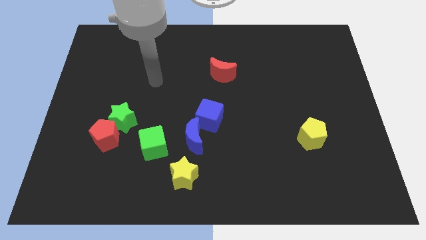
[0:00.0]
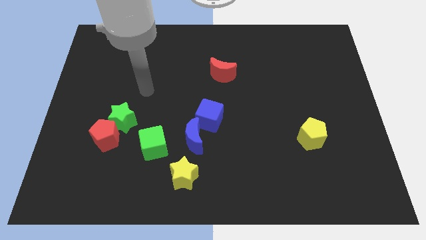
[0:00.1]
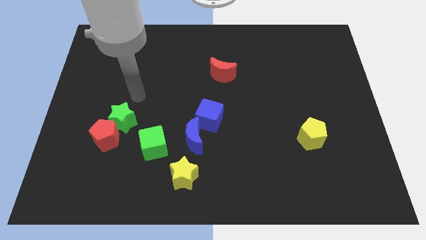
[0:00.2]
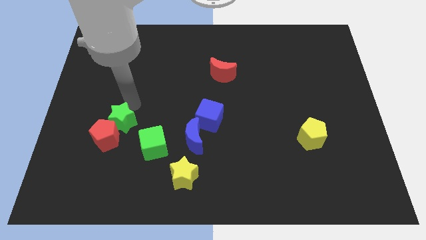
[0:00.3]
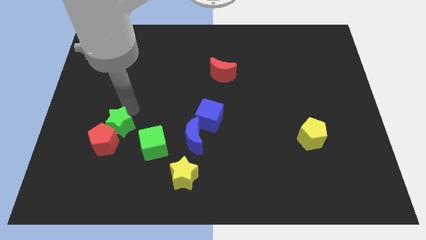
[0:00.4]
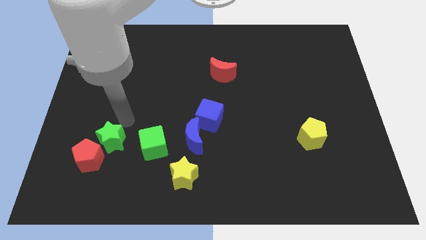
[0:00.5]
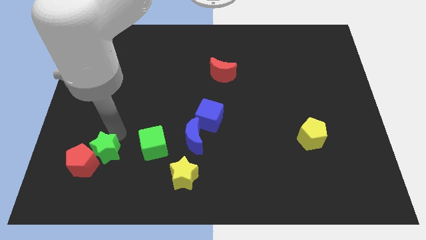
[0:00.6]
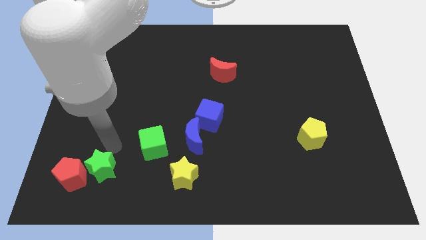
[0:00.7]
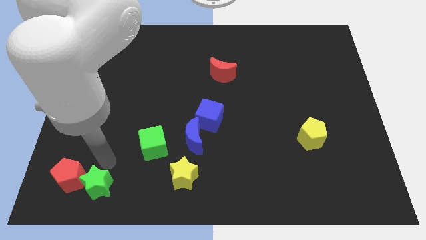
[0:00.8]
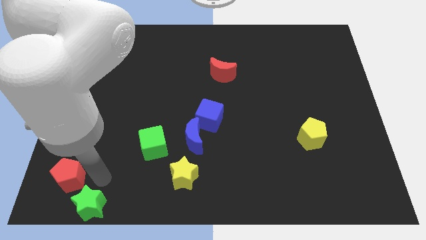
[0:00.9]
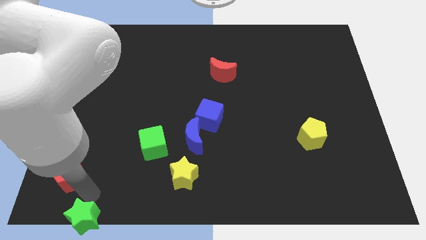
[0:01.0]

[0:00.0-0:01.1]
move the red pentagon away from the green star

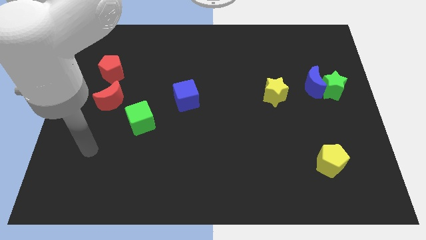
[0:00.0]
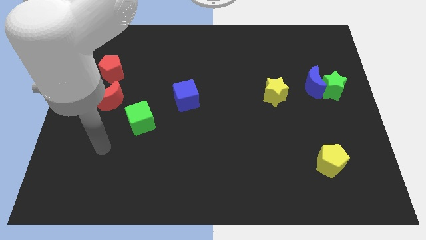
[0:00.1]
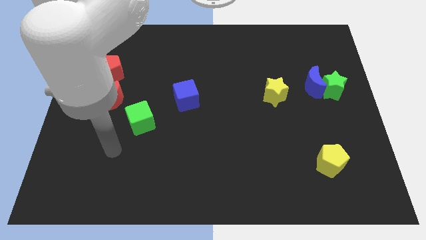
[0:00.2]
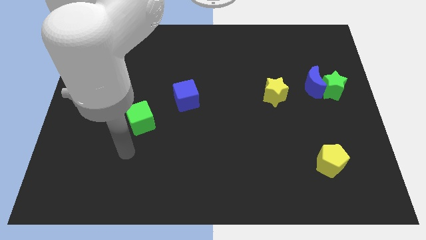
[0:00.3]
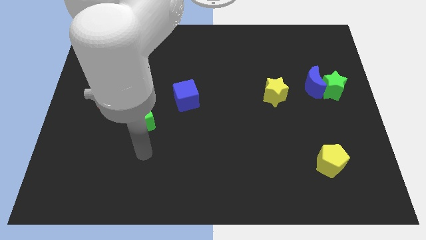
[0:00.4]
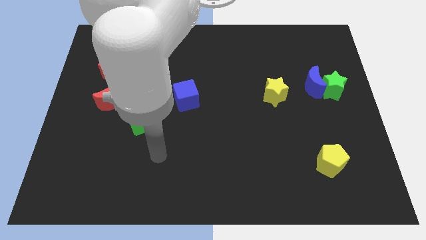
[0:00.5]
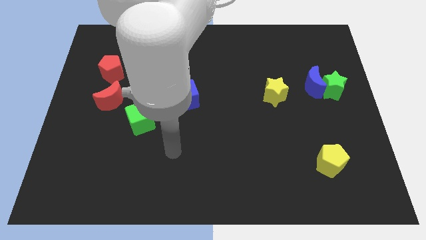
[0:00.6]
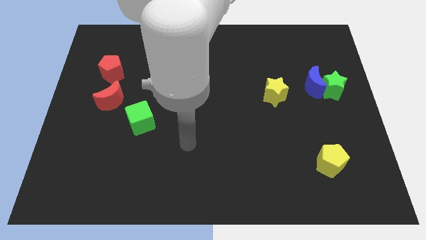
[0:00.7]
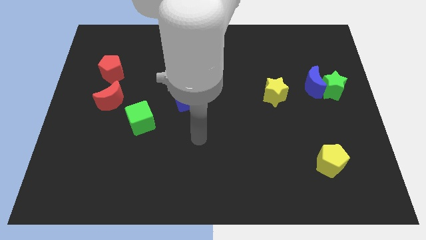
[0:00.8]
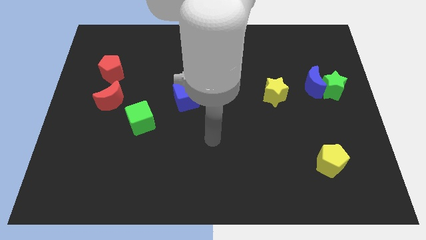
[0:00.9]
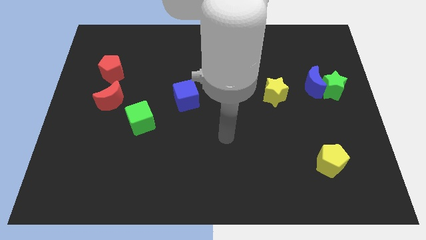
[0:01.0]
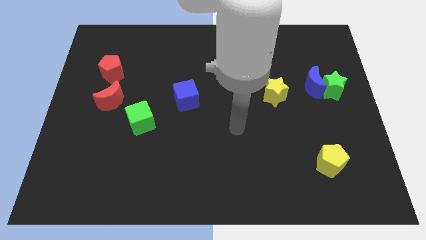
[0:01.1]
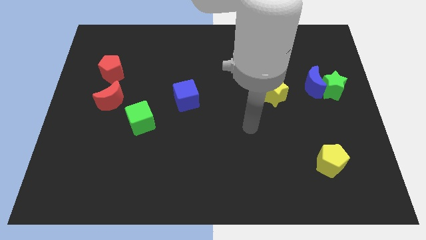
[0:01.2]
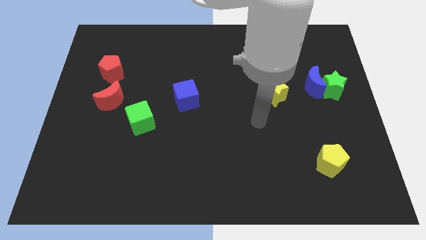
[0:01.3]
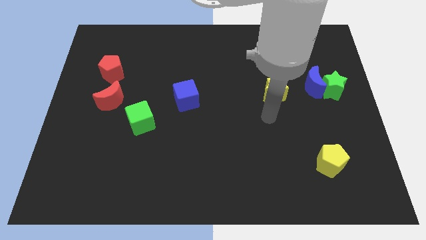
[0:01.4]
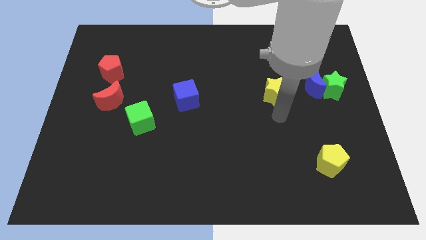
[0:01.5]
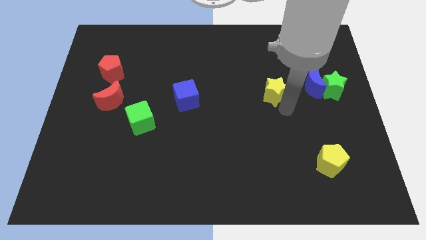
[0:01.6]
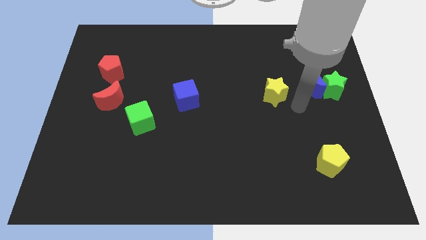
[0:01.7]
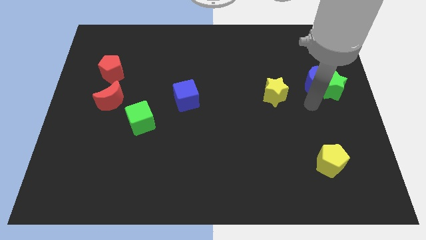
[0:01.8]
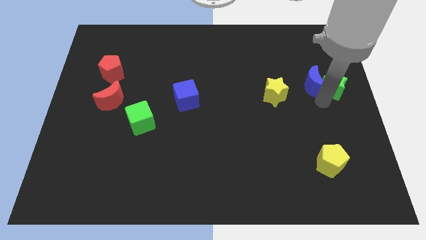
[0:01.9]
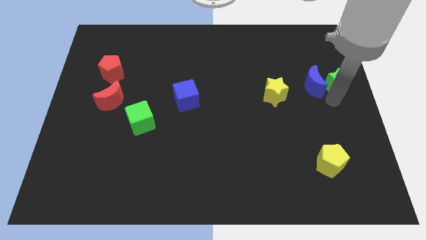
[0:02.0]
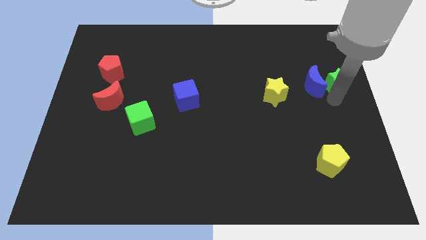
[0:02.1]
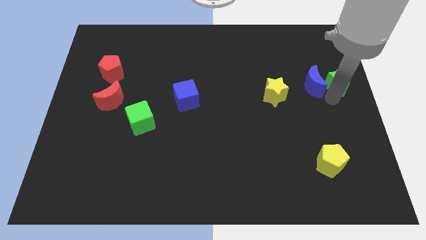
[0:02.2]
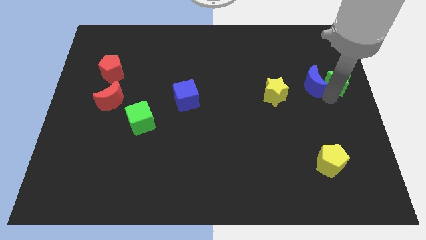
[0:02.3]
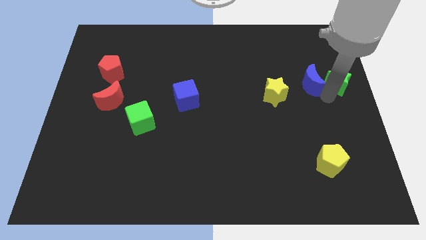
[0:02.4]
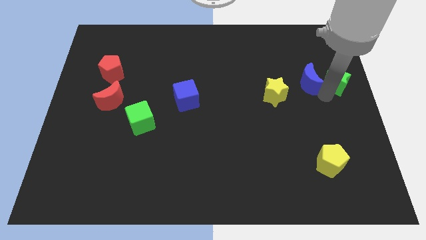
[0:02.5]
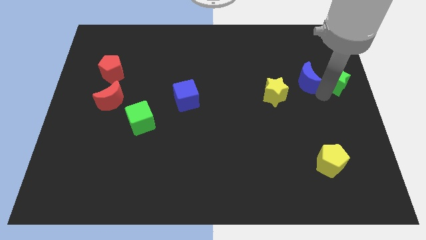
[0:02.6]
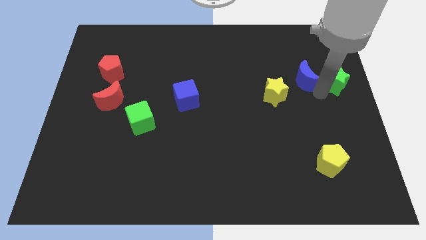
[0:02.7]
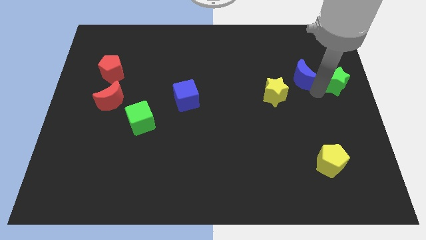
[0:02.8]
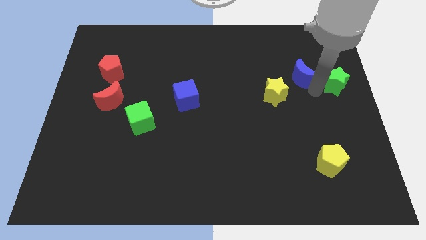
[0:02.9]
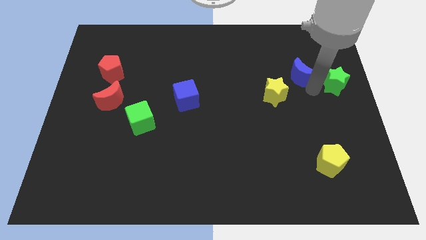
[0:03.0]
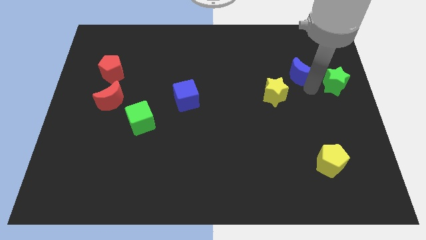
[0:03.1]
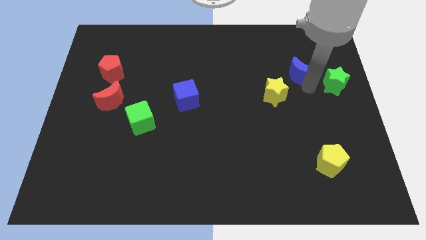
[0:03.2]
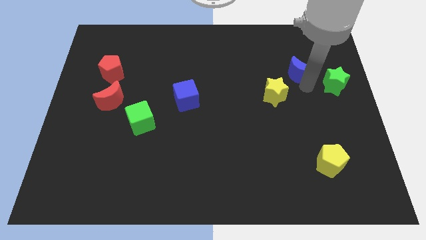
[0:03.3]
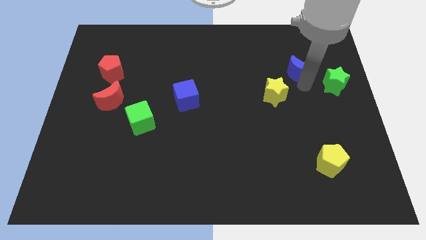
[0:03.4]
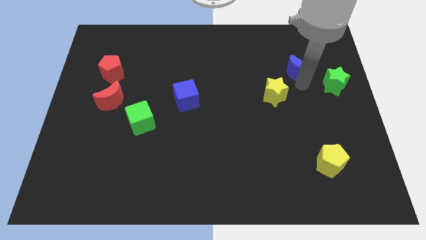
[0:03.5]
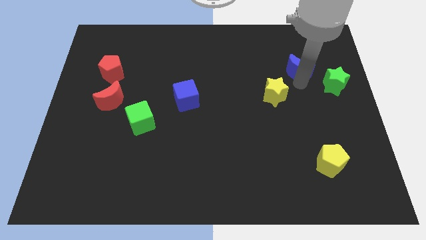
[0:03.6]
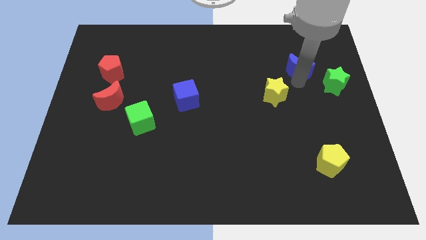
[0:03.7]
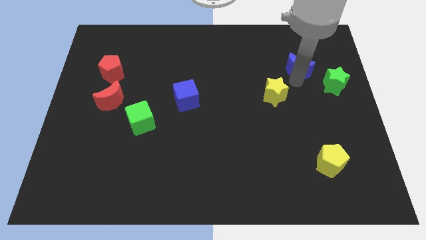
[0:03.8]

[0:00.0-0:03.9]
separate the blue moon from the green star

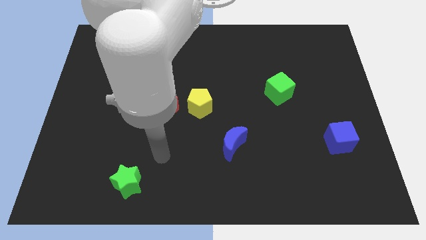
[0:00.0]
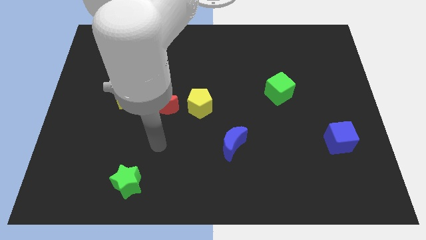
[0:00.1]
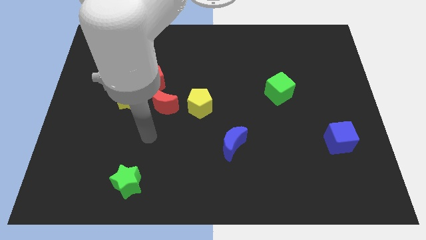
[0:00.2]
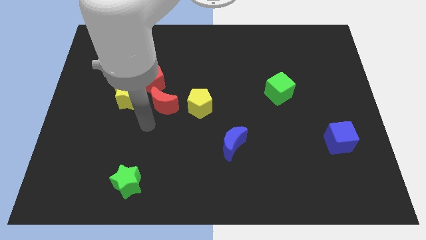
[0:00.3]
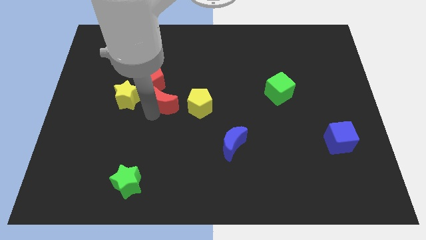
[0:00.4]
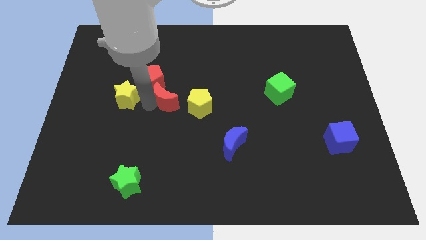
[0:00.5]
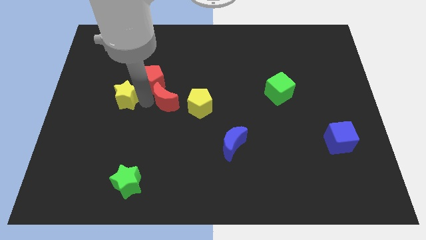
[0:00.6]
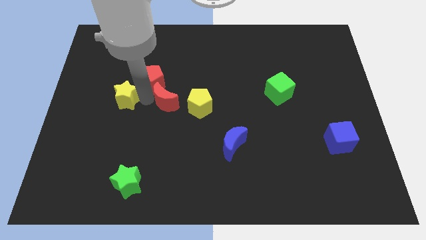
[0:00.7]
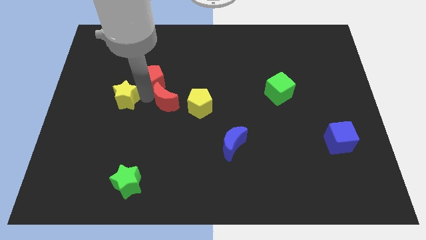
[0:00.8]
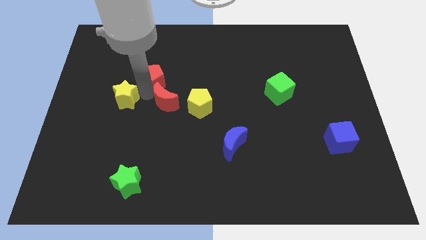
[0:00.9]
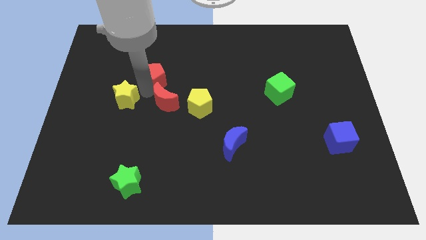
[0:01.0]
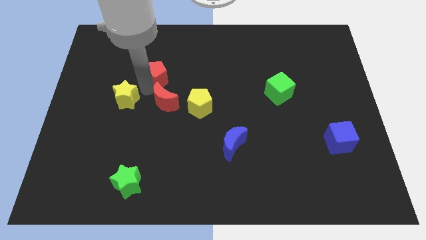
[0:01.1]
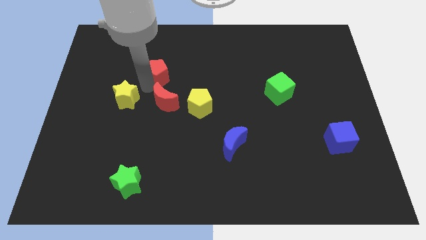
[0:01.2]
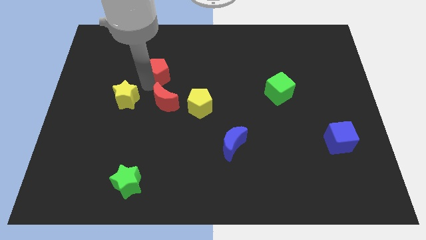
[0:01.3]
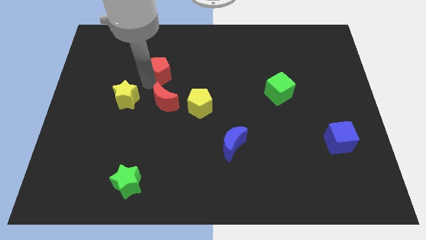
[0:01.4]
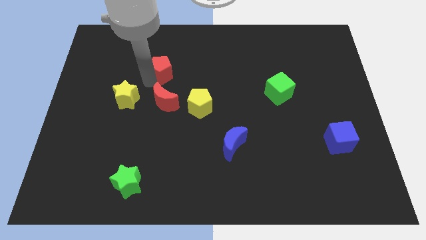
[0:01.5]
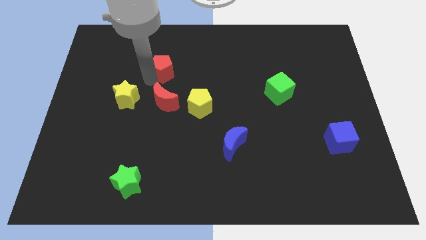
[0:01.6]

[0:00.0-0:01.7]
pull the red pentagon apart from the yellow star and red moon

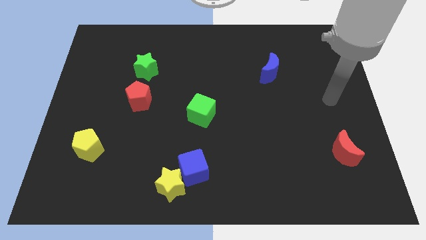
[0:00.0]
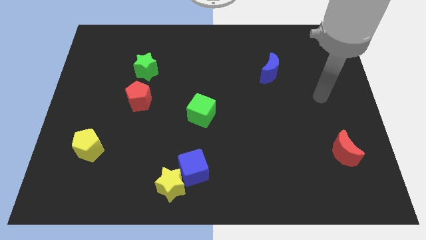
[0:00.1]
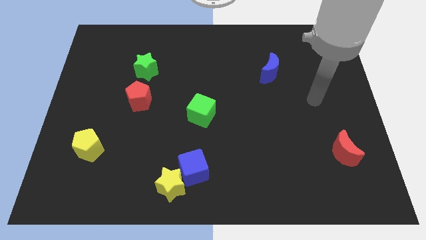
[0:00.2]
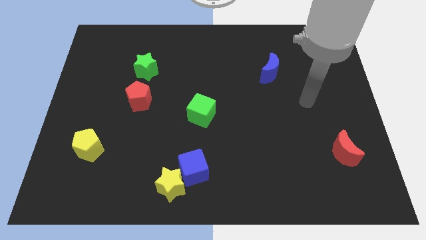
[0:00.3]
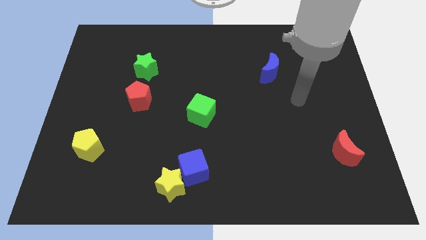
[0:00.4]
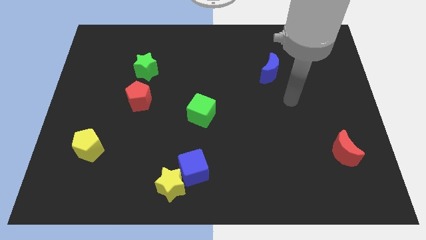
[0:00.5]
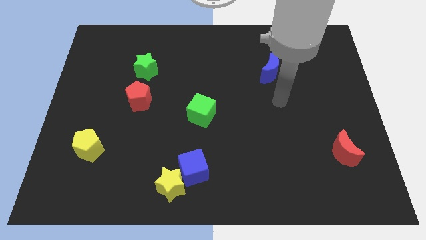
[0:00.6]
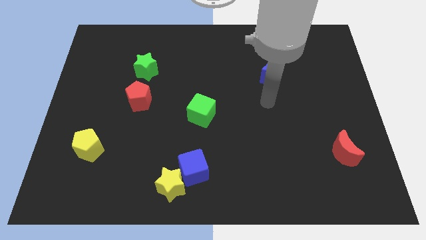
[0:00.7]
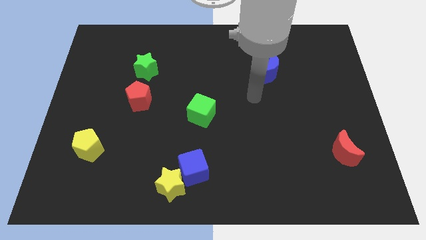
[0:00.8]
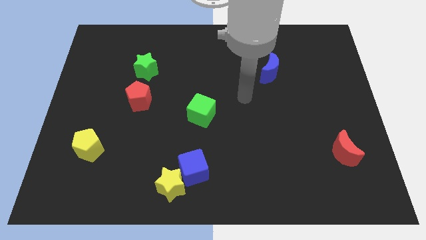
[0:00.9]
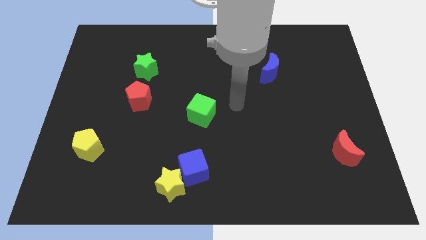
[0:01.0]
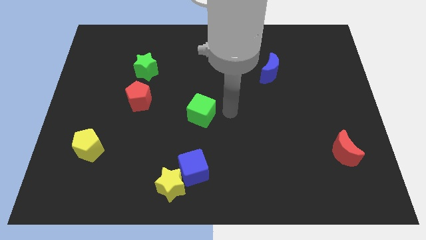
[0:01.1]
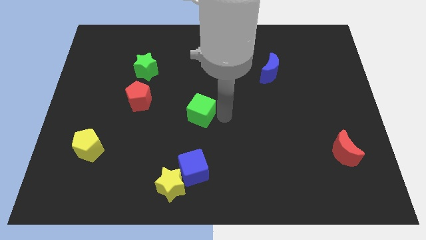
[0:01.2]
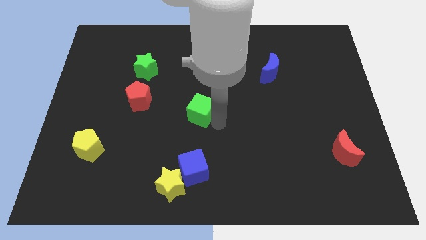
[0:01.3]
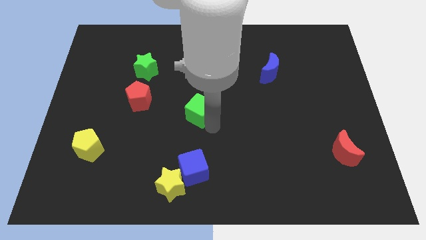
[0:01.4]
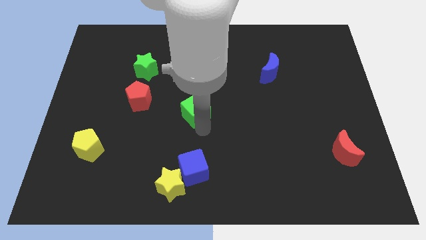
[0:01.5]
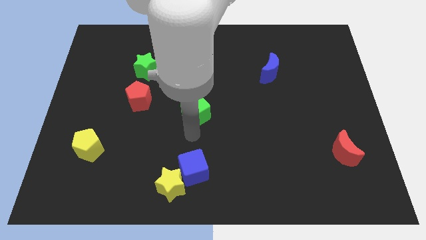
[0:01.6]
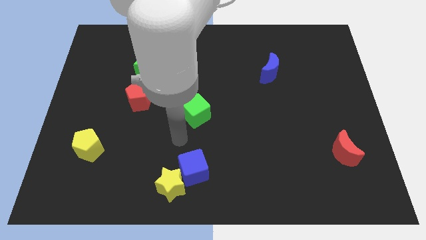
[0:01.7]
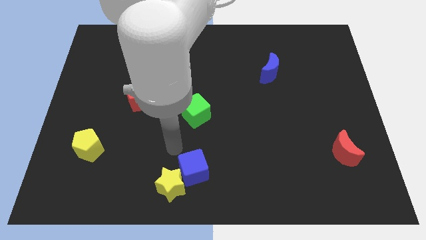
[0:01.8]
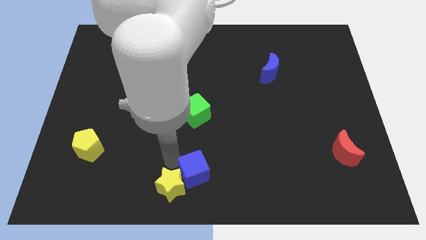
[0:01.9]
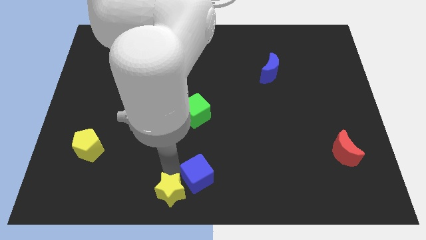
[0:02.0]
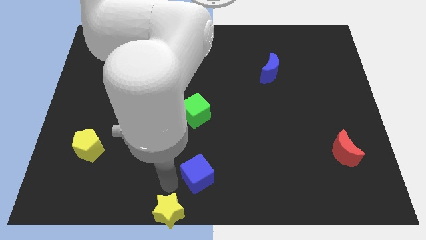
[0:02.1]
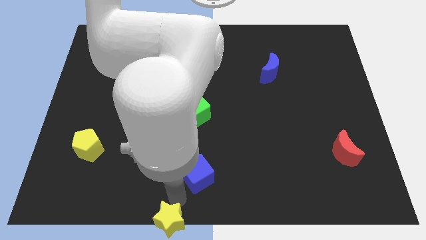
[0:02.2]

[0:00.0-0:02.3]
separate the blue cube from the yellow star

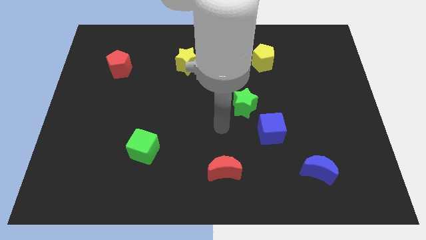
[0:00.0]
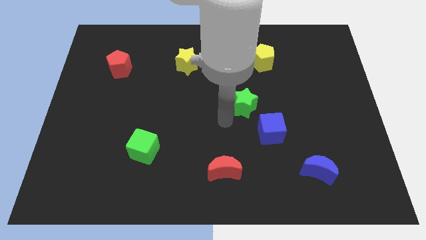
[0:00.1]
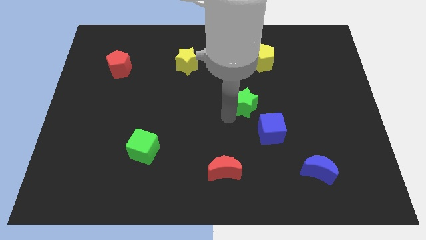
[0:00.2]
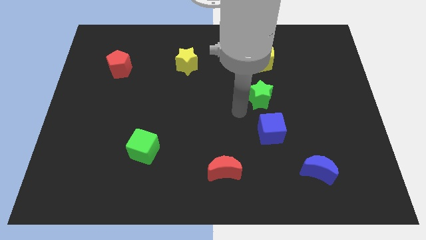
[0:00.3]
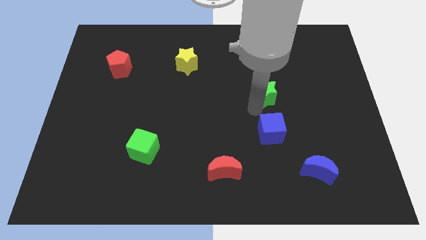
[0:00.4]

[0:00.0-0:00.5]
move the blue cube away from the green star
